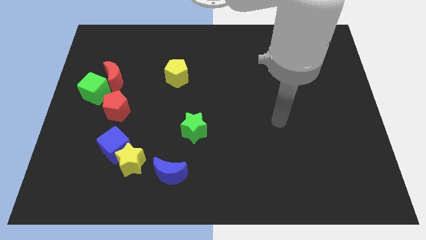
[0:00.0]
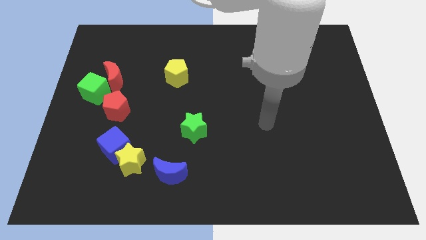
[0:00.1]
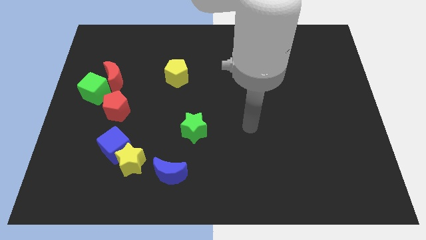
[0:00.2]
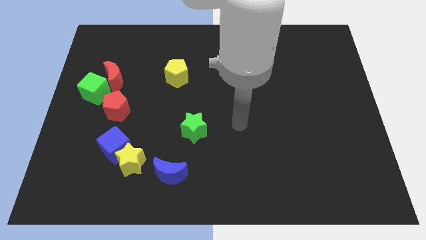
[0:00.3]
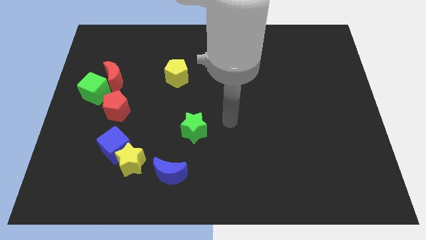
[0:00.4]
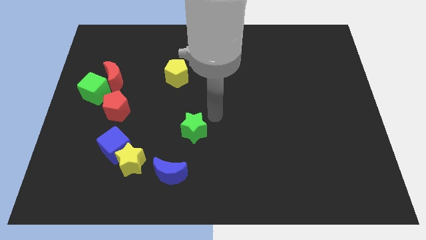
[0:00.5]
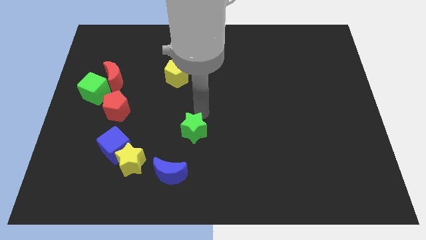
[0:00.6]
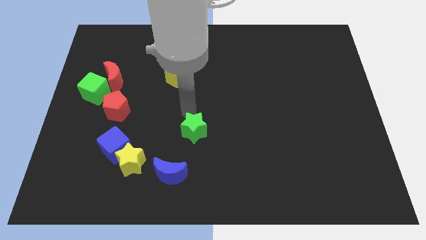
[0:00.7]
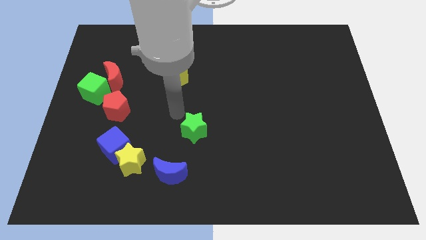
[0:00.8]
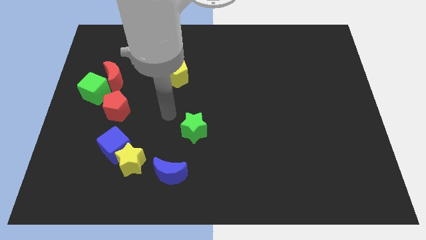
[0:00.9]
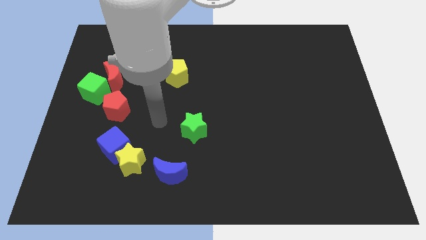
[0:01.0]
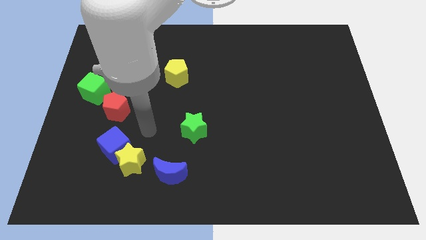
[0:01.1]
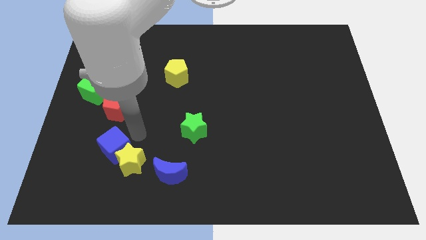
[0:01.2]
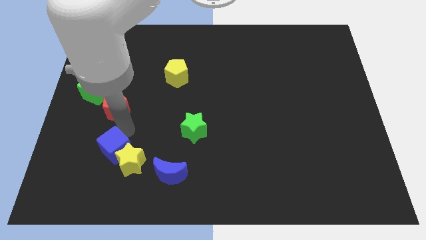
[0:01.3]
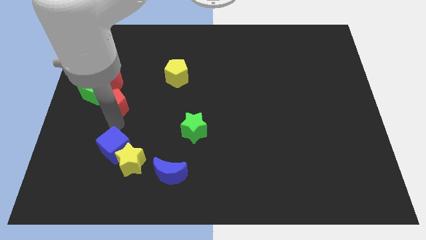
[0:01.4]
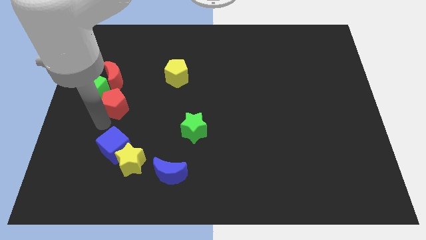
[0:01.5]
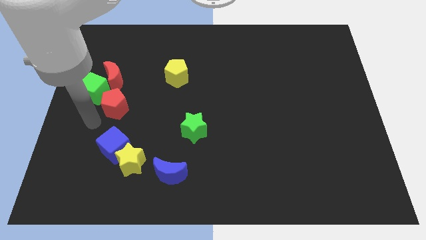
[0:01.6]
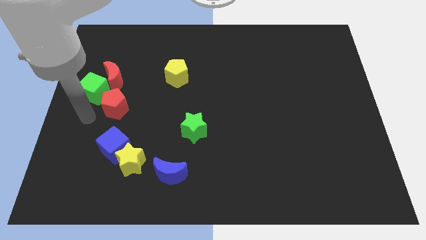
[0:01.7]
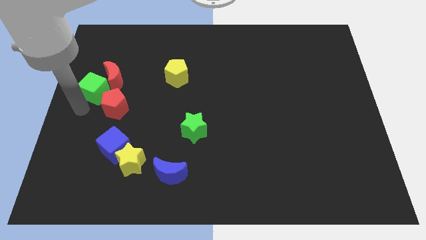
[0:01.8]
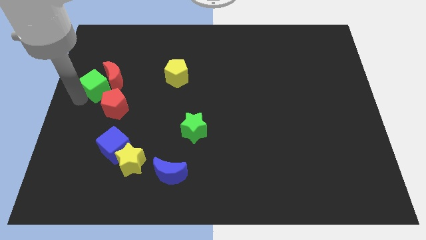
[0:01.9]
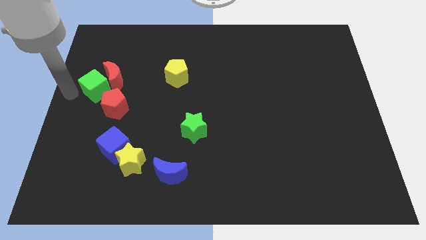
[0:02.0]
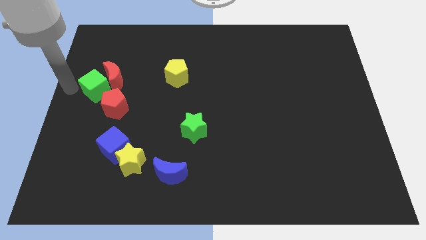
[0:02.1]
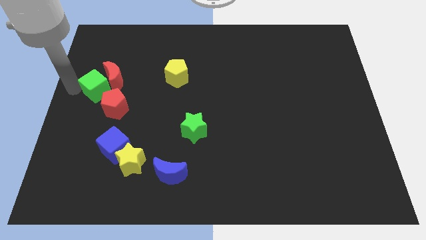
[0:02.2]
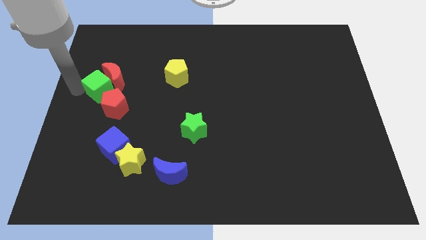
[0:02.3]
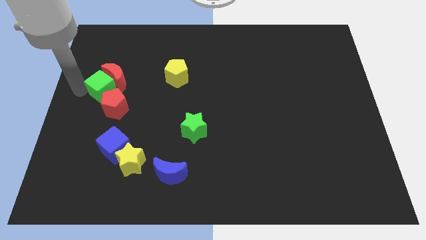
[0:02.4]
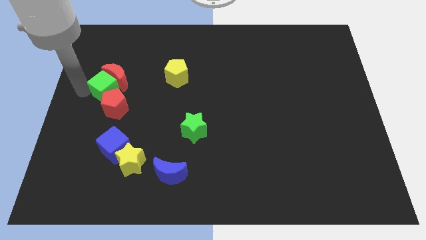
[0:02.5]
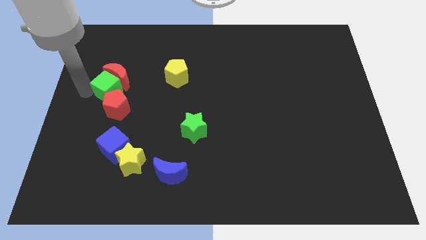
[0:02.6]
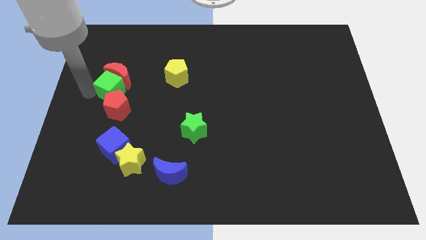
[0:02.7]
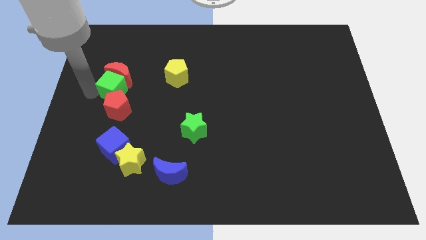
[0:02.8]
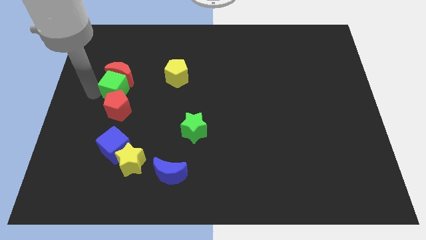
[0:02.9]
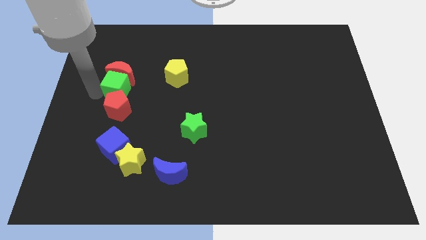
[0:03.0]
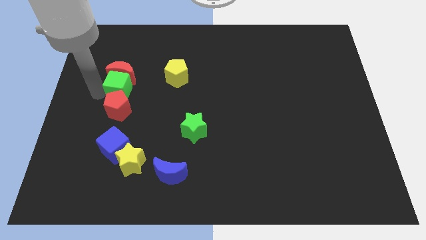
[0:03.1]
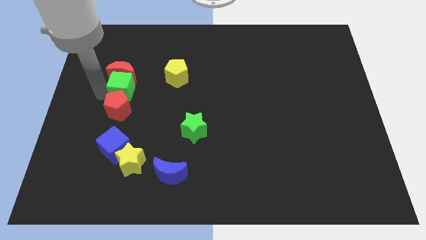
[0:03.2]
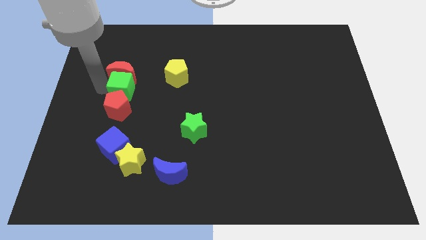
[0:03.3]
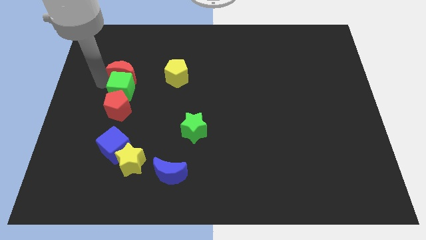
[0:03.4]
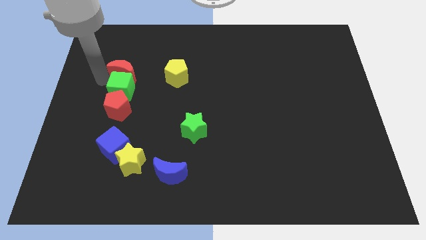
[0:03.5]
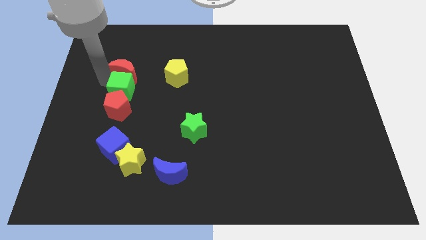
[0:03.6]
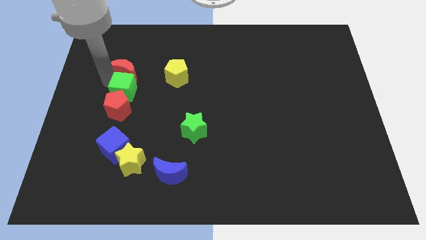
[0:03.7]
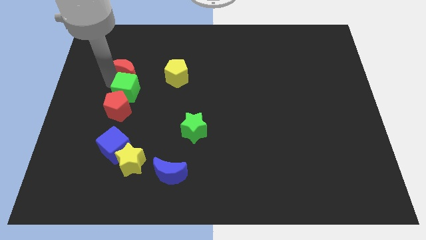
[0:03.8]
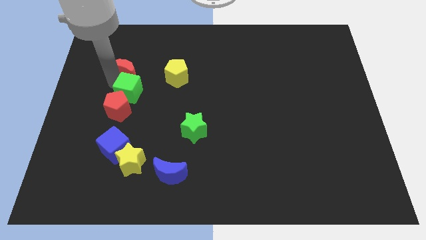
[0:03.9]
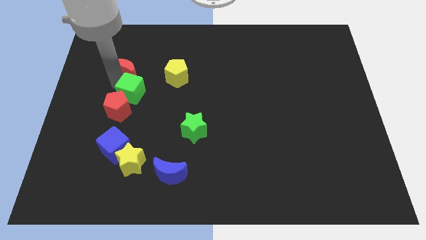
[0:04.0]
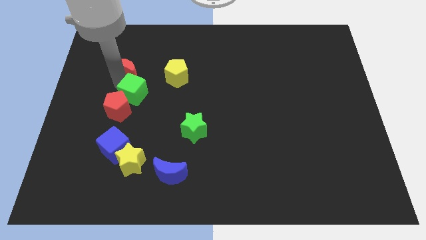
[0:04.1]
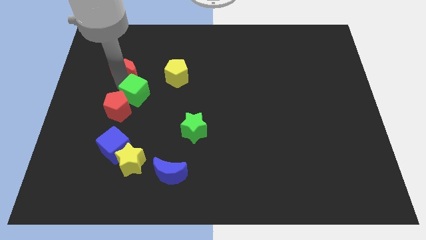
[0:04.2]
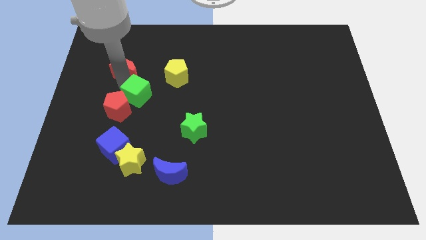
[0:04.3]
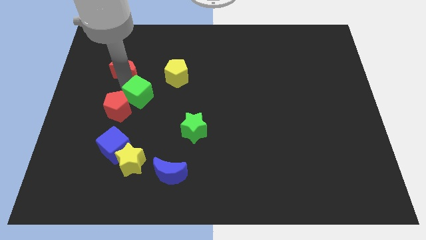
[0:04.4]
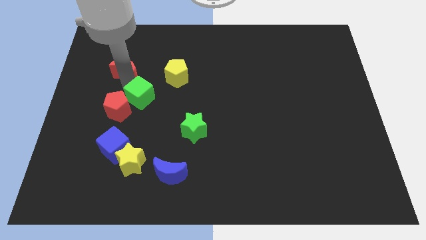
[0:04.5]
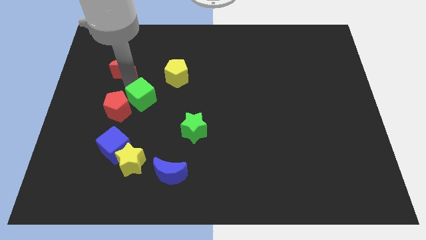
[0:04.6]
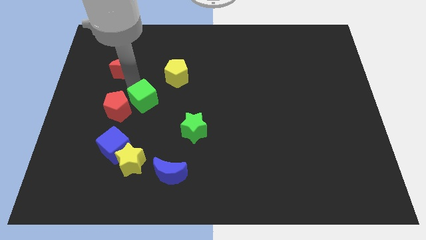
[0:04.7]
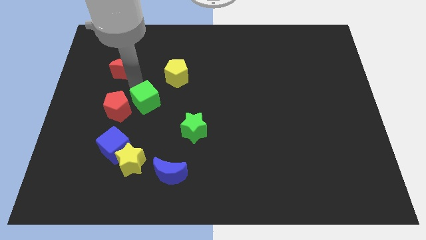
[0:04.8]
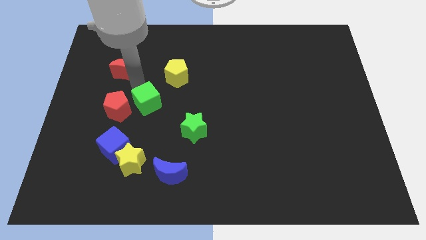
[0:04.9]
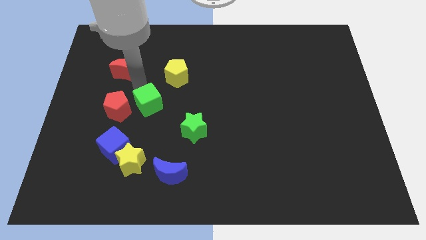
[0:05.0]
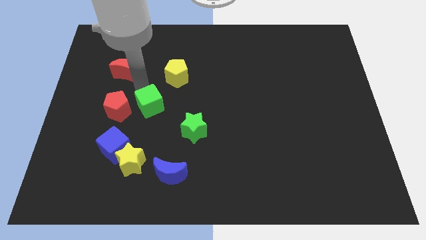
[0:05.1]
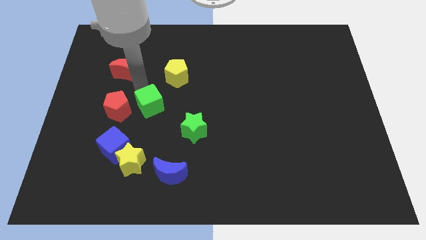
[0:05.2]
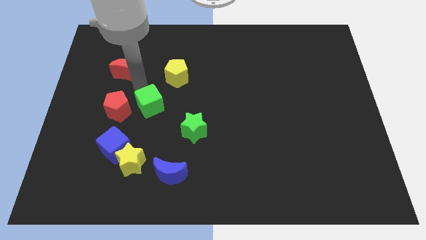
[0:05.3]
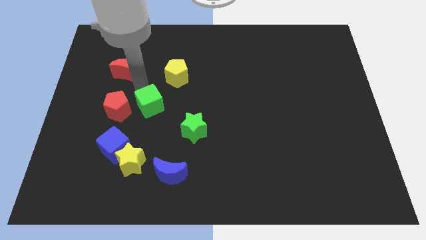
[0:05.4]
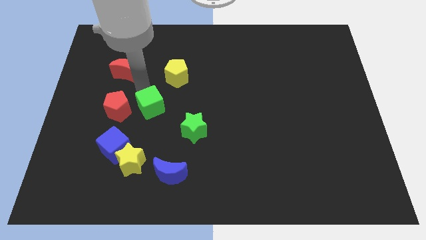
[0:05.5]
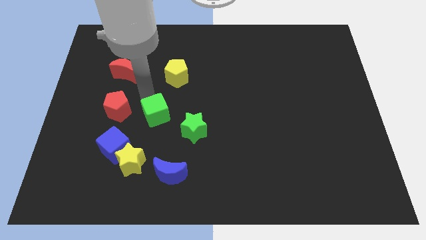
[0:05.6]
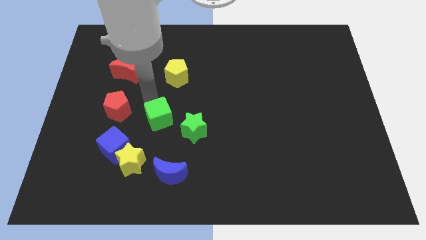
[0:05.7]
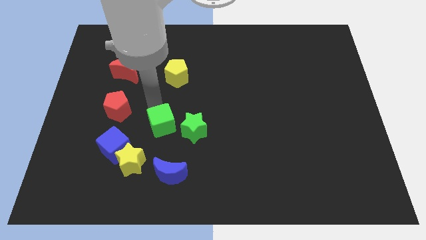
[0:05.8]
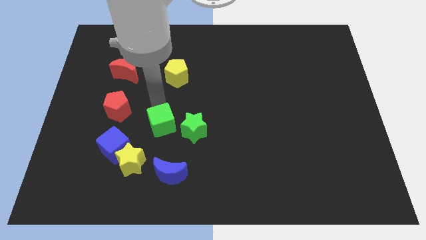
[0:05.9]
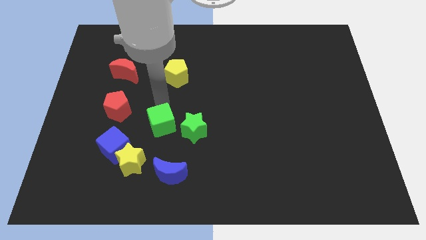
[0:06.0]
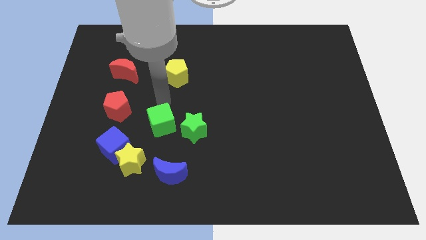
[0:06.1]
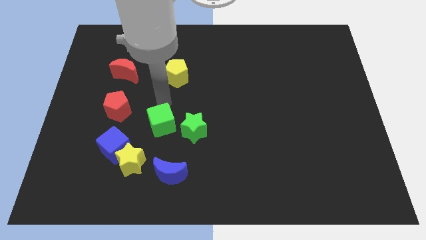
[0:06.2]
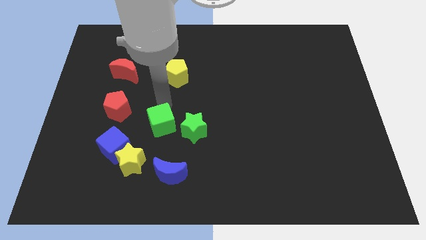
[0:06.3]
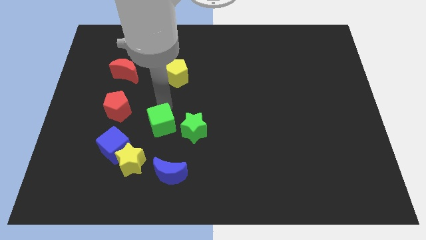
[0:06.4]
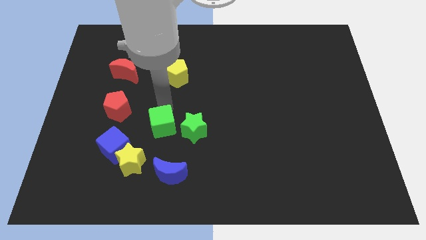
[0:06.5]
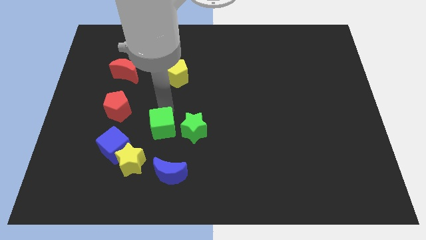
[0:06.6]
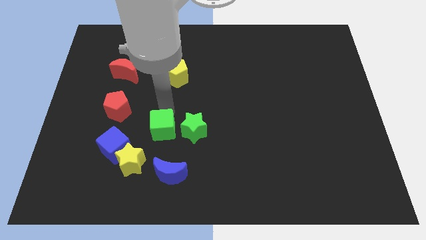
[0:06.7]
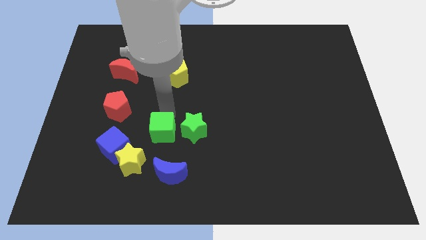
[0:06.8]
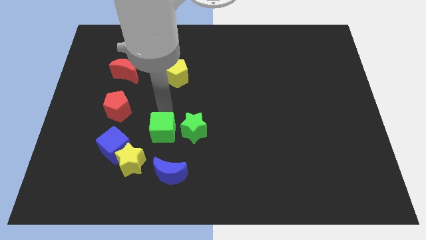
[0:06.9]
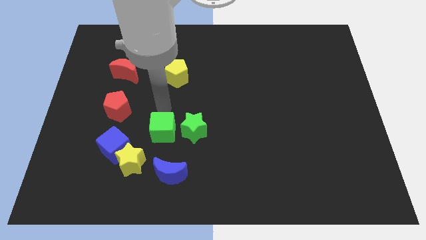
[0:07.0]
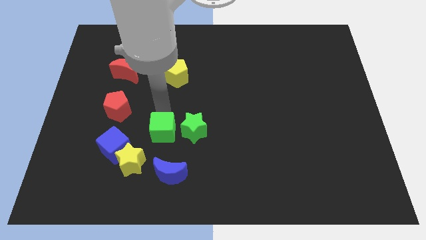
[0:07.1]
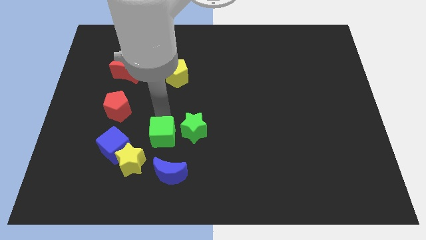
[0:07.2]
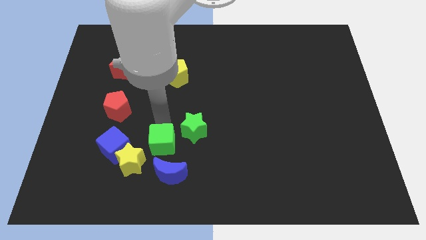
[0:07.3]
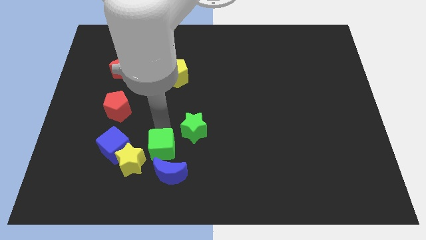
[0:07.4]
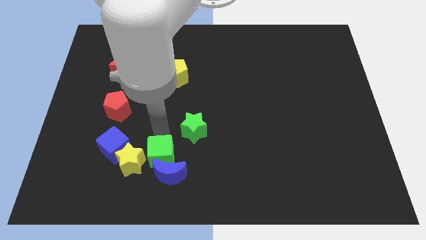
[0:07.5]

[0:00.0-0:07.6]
push the green cube to the blue moon
